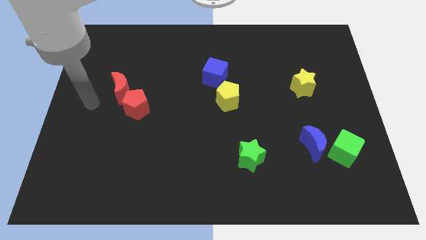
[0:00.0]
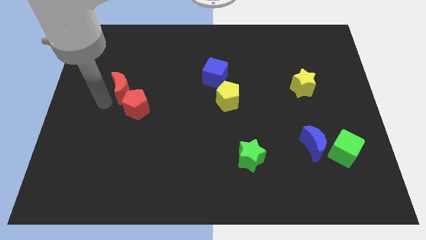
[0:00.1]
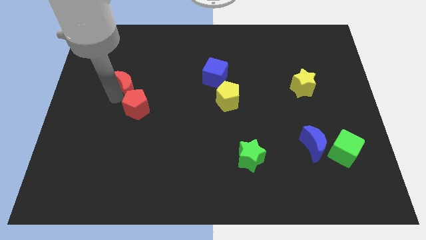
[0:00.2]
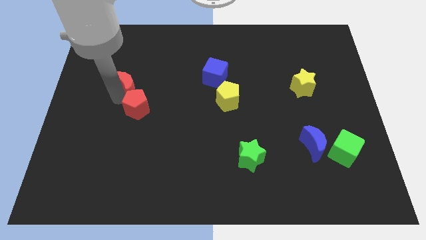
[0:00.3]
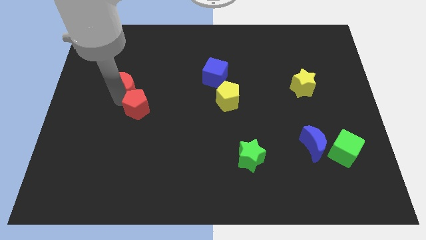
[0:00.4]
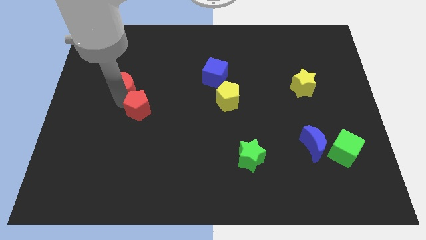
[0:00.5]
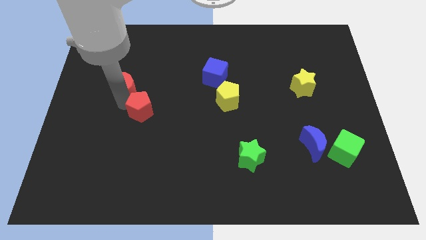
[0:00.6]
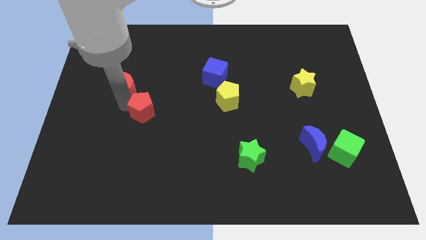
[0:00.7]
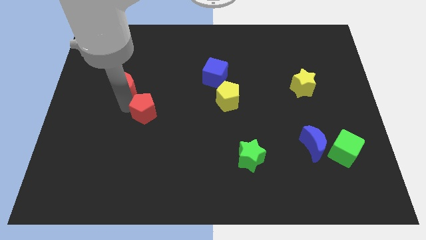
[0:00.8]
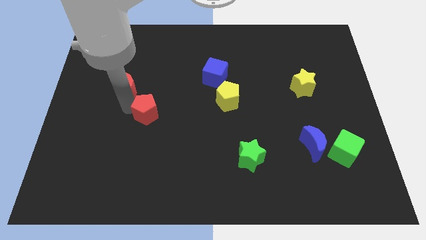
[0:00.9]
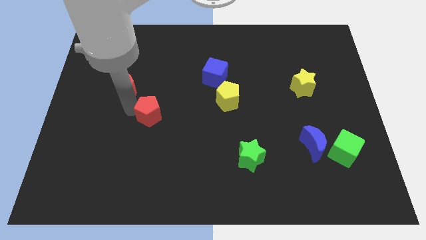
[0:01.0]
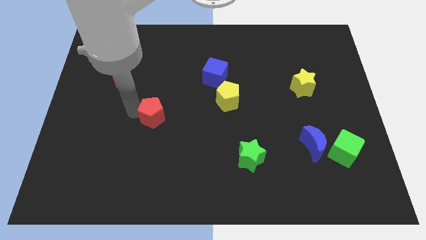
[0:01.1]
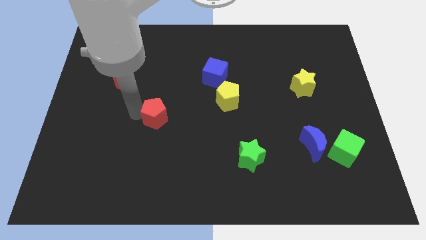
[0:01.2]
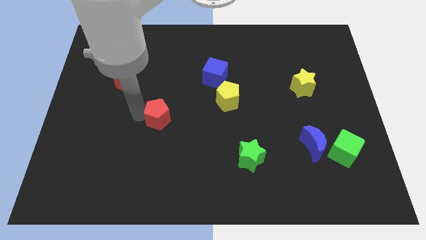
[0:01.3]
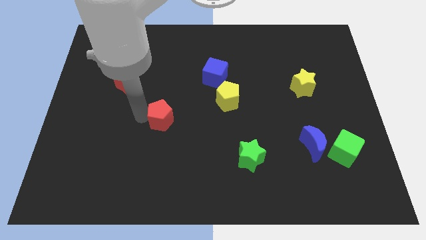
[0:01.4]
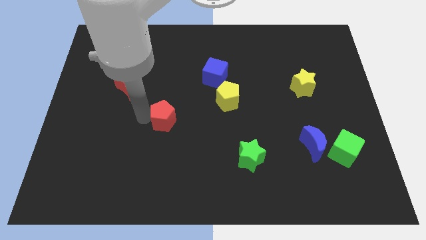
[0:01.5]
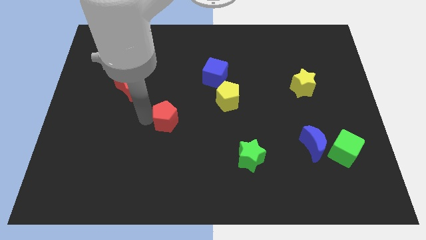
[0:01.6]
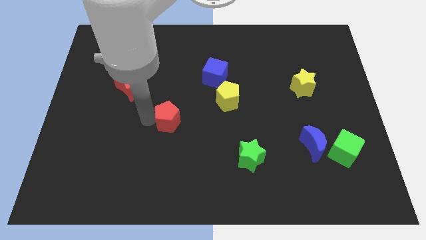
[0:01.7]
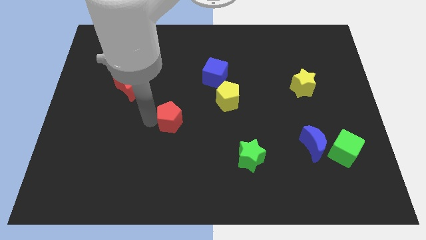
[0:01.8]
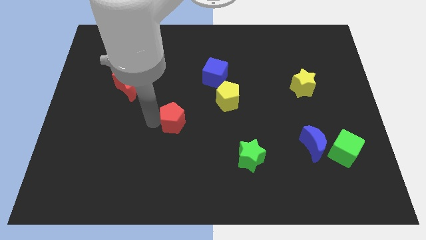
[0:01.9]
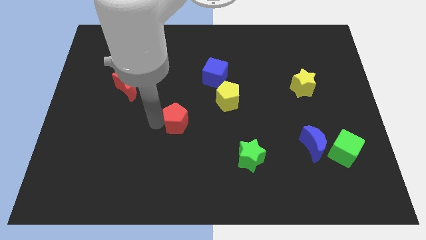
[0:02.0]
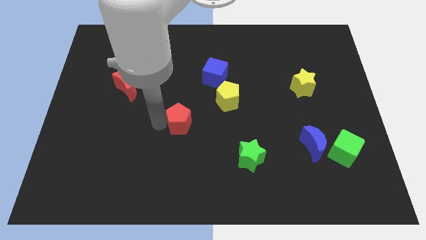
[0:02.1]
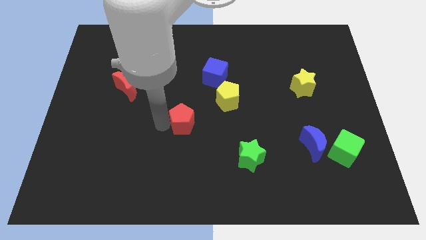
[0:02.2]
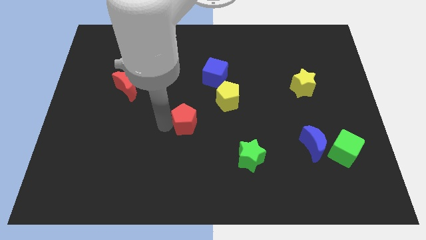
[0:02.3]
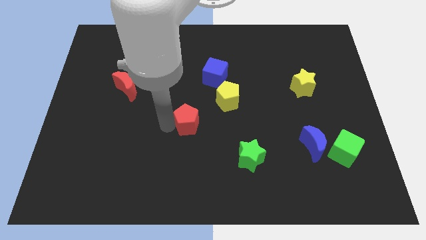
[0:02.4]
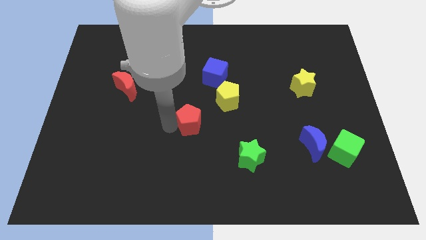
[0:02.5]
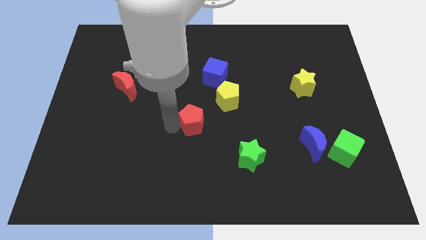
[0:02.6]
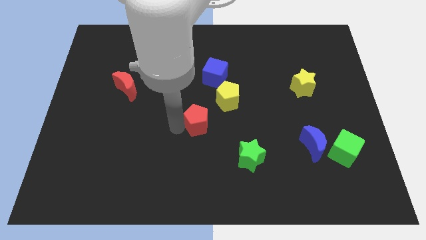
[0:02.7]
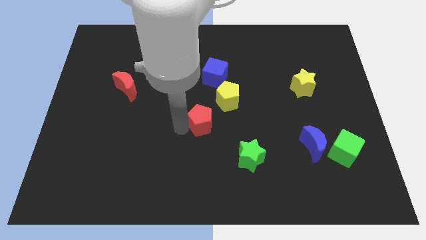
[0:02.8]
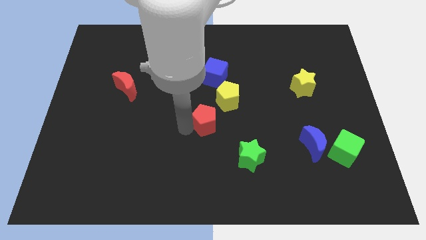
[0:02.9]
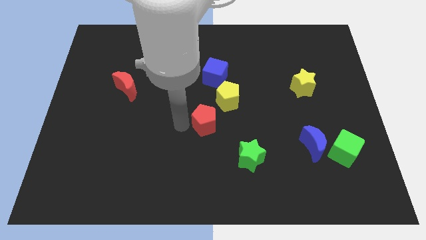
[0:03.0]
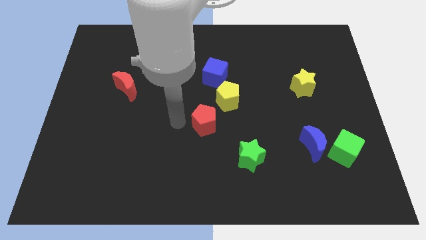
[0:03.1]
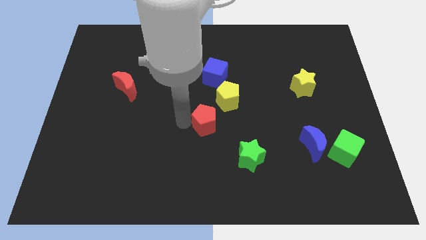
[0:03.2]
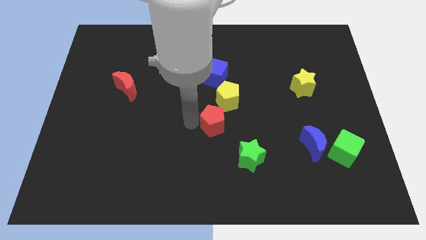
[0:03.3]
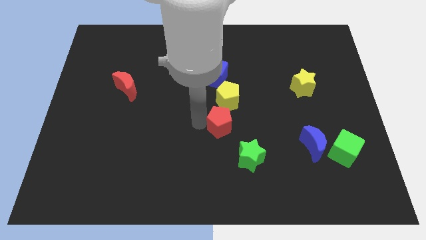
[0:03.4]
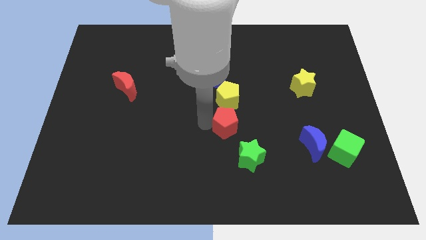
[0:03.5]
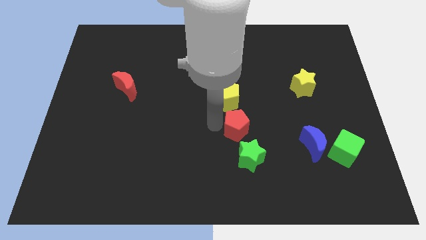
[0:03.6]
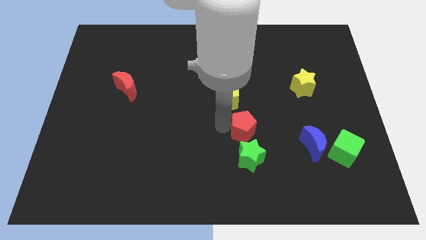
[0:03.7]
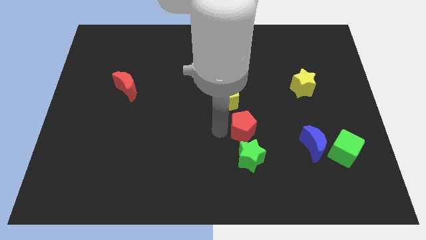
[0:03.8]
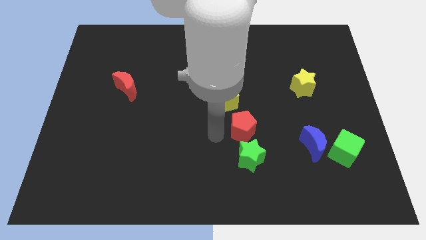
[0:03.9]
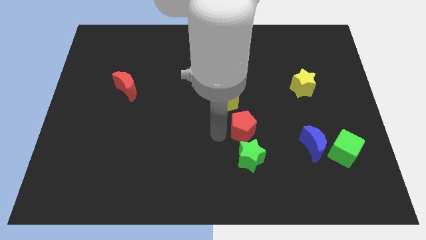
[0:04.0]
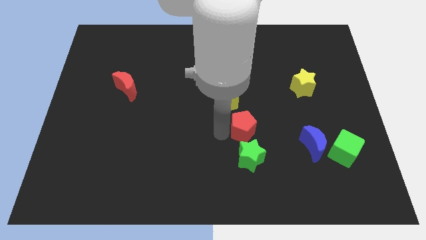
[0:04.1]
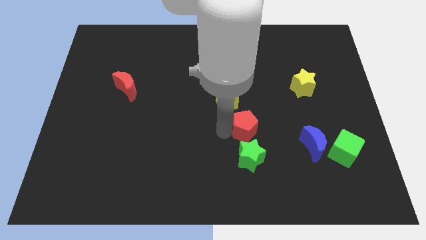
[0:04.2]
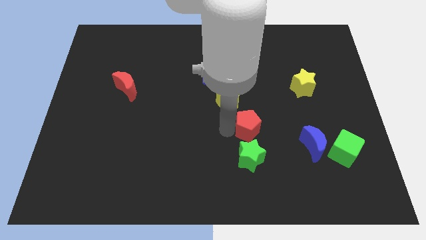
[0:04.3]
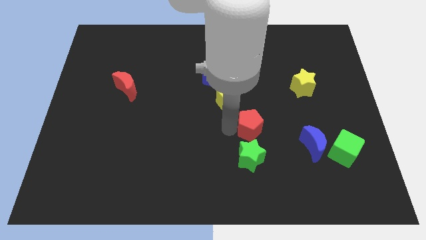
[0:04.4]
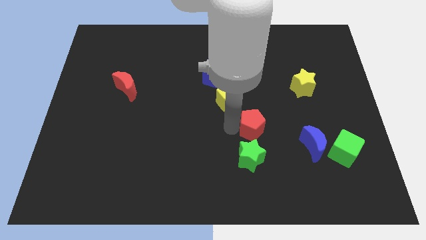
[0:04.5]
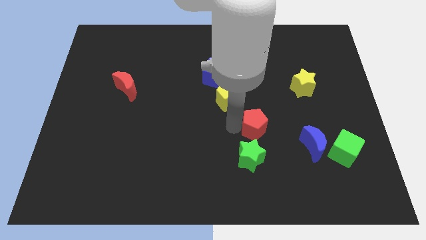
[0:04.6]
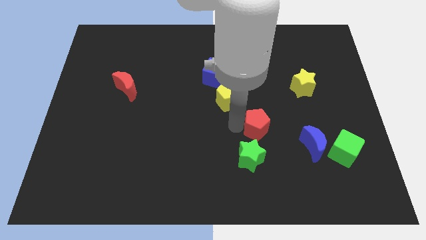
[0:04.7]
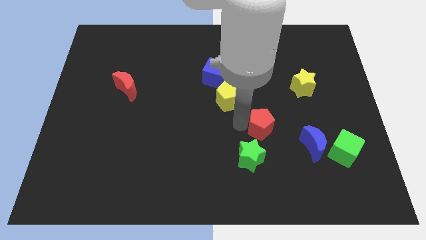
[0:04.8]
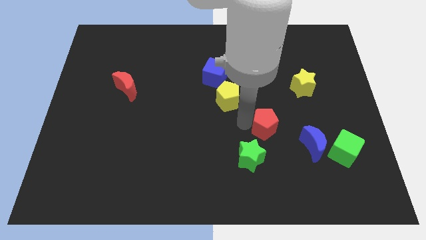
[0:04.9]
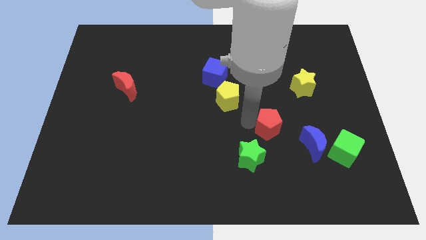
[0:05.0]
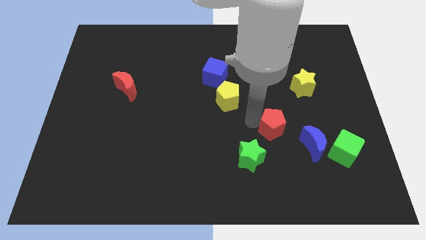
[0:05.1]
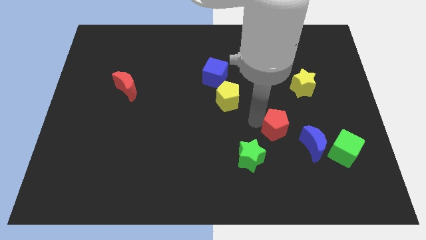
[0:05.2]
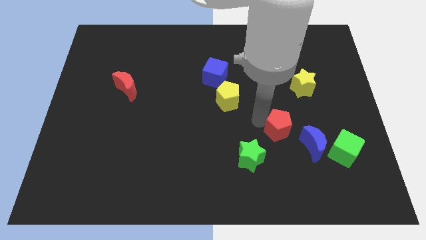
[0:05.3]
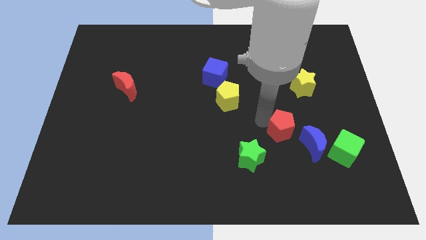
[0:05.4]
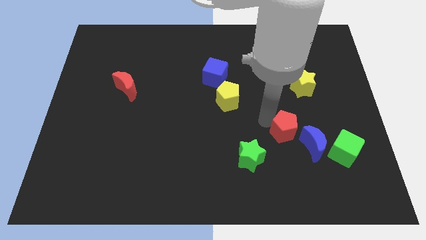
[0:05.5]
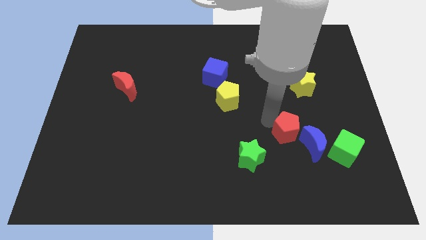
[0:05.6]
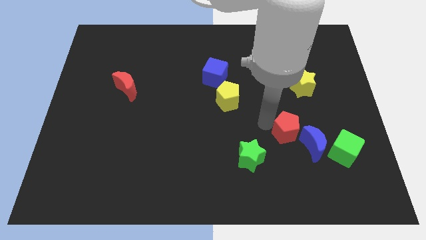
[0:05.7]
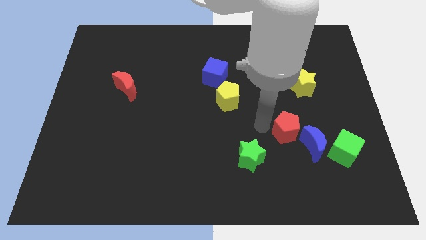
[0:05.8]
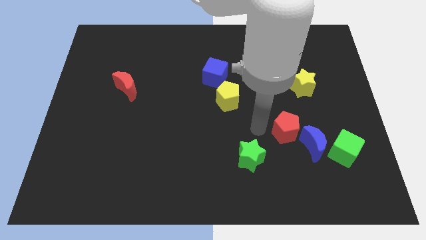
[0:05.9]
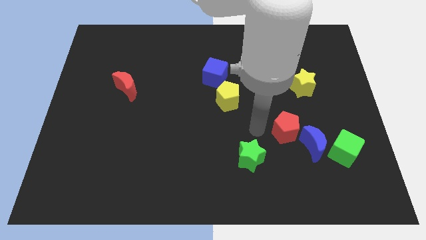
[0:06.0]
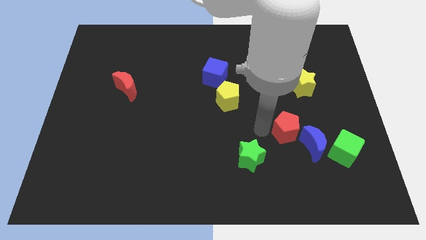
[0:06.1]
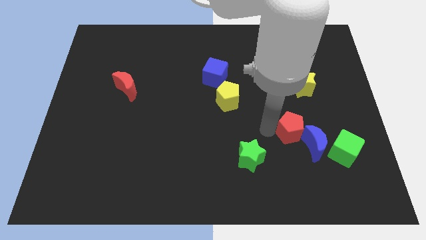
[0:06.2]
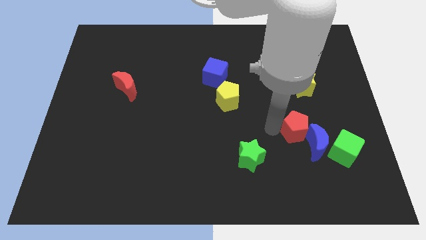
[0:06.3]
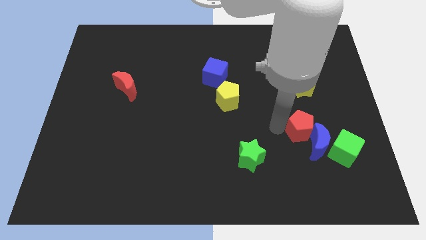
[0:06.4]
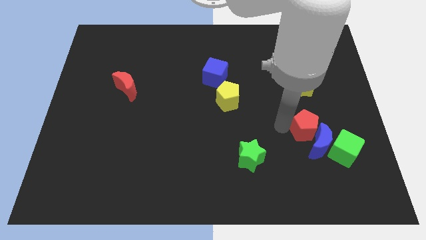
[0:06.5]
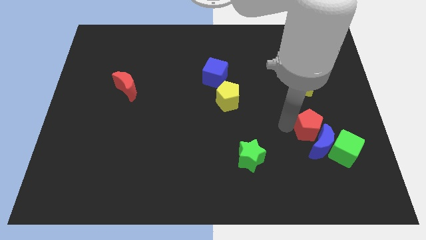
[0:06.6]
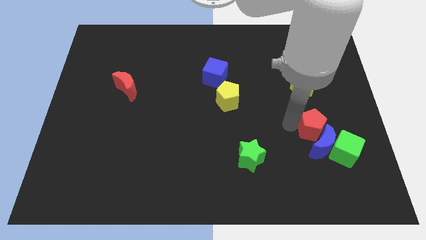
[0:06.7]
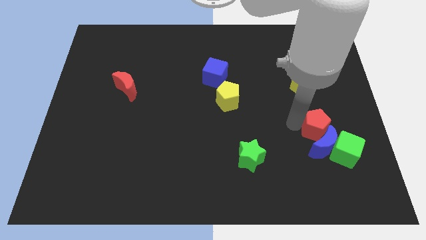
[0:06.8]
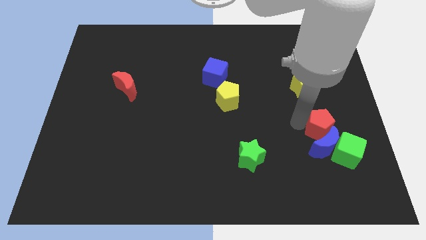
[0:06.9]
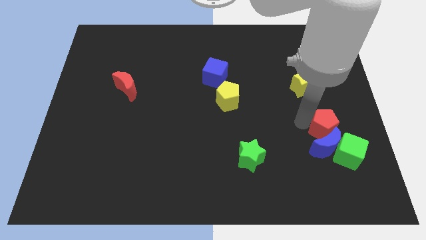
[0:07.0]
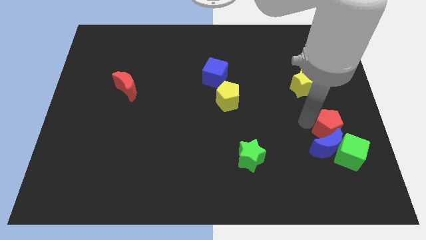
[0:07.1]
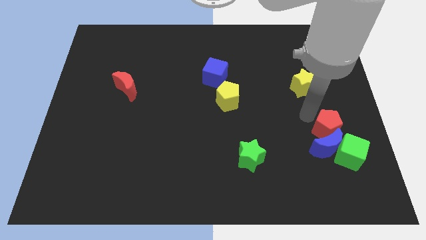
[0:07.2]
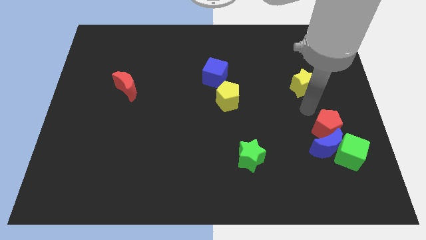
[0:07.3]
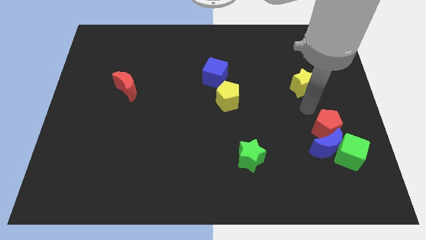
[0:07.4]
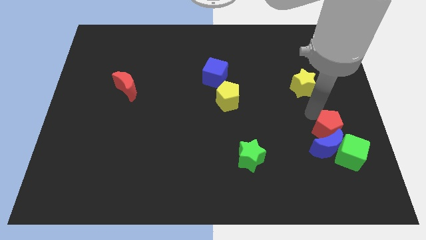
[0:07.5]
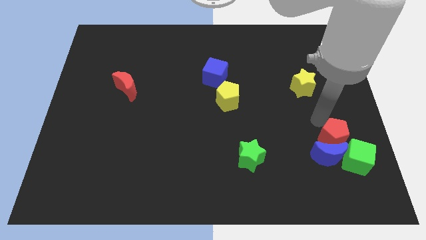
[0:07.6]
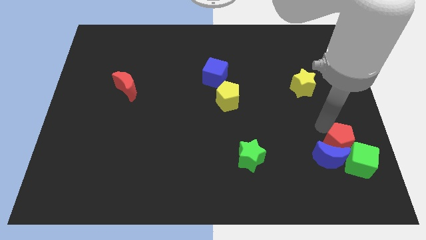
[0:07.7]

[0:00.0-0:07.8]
push the red pentagon towards the green cube
